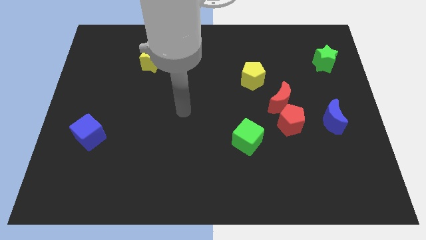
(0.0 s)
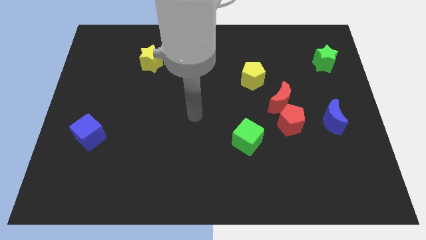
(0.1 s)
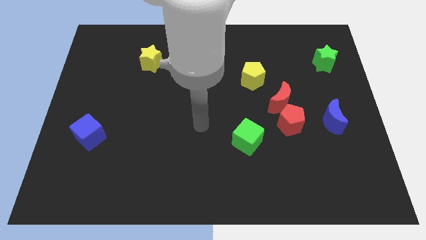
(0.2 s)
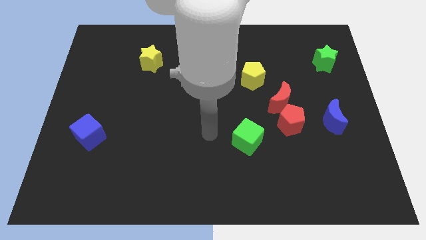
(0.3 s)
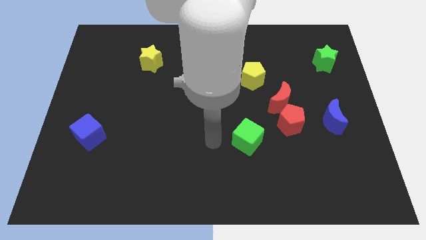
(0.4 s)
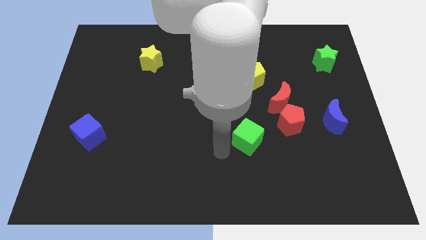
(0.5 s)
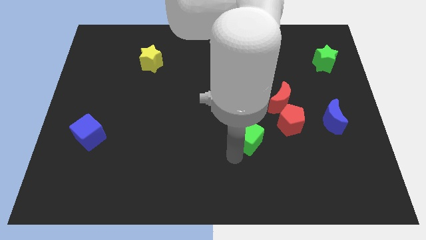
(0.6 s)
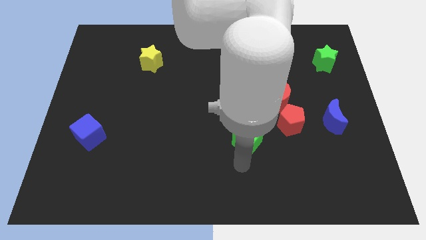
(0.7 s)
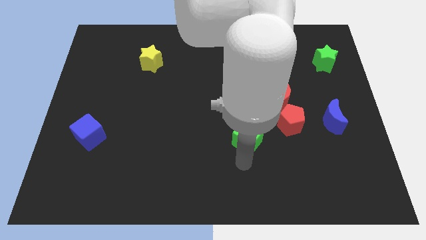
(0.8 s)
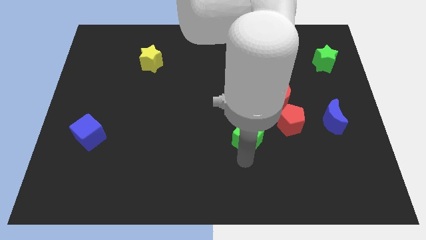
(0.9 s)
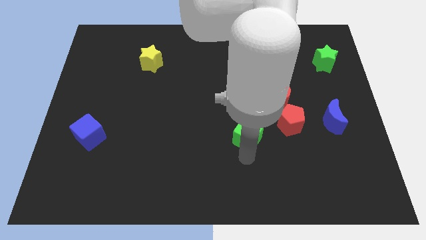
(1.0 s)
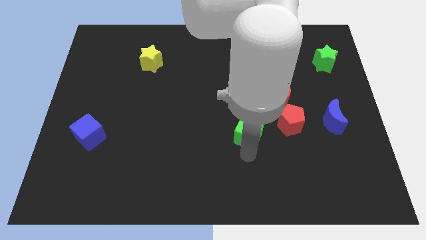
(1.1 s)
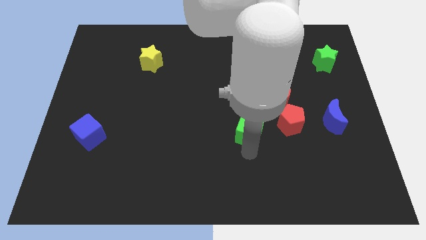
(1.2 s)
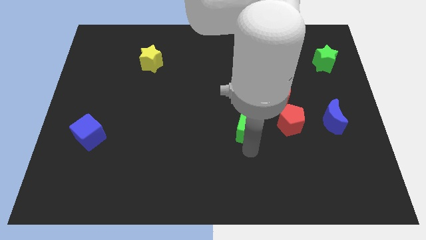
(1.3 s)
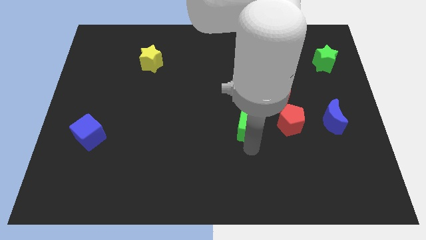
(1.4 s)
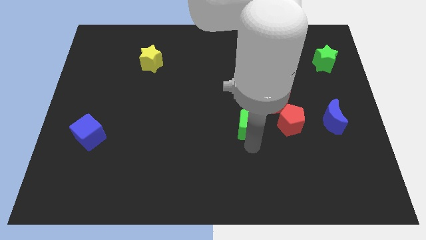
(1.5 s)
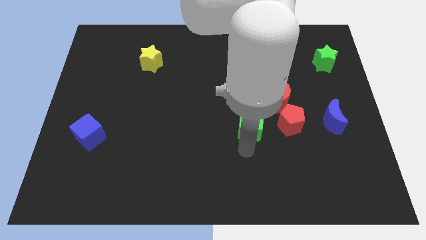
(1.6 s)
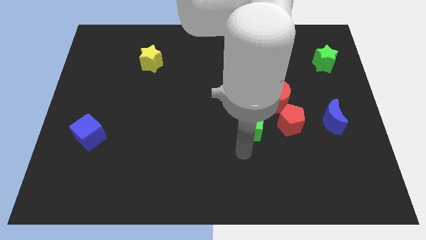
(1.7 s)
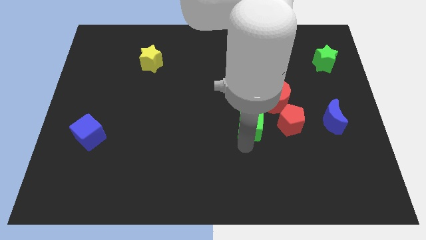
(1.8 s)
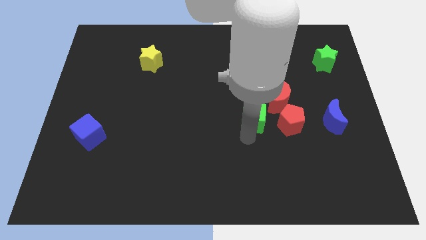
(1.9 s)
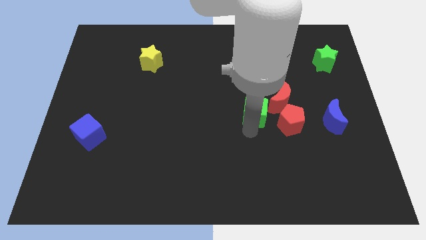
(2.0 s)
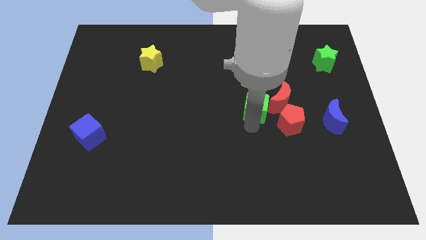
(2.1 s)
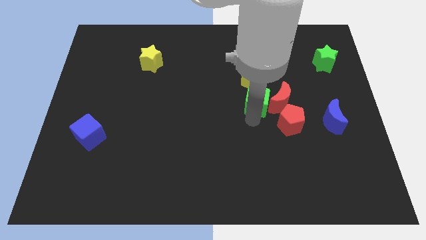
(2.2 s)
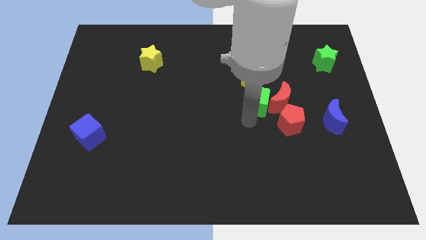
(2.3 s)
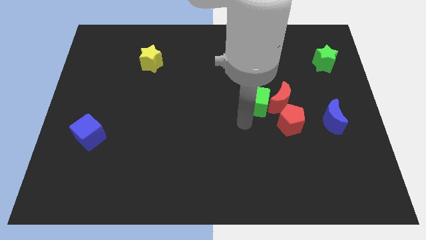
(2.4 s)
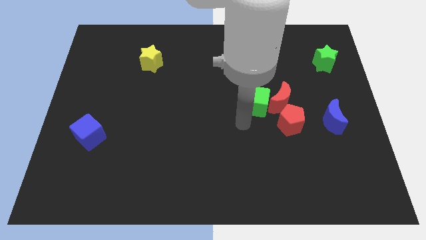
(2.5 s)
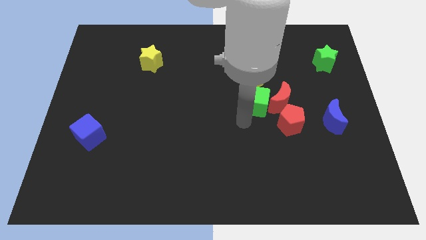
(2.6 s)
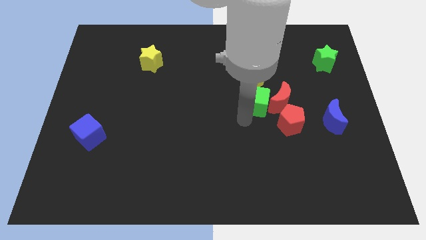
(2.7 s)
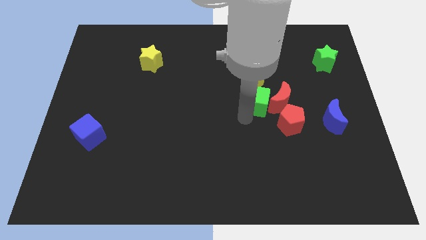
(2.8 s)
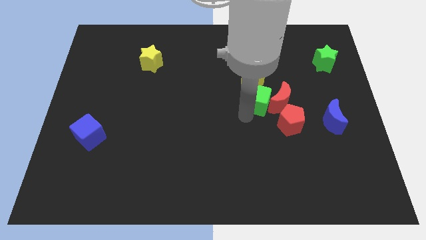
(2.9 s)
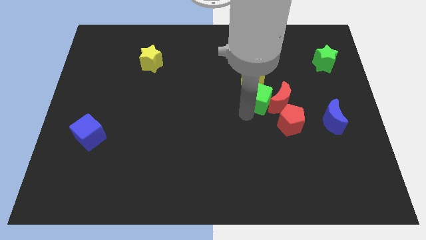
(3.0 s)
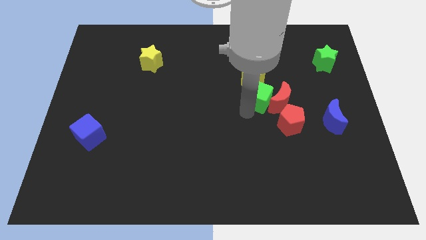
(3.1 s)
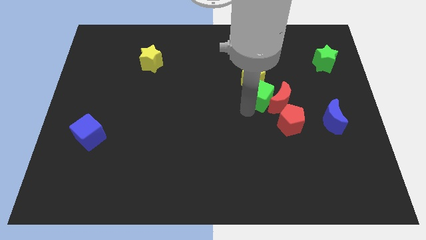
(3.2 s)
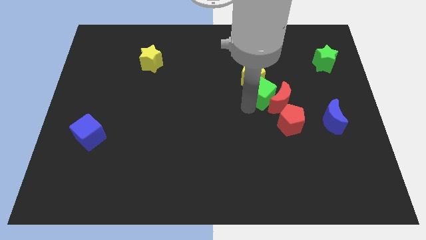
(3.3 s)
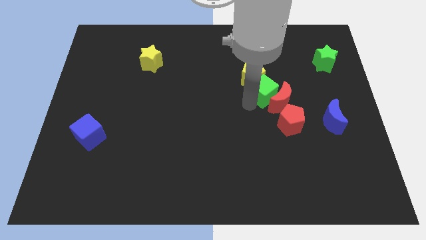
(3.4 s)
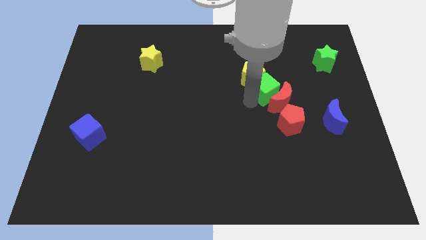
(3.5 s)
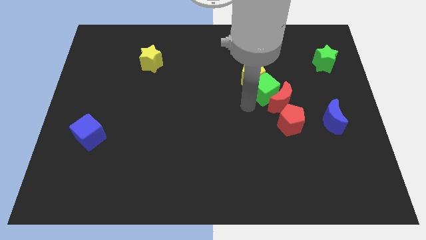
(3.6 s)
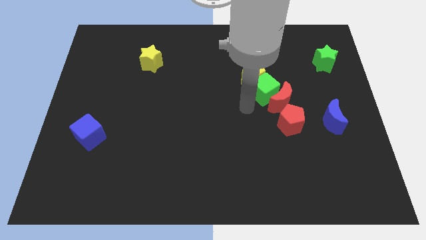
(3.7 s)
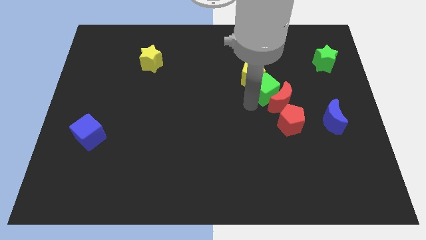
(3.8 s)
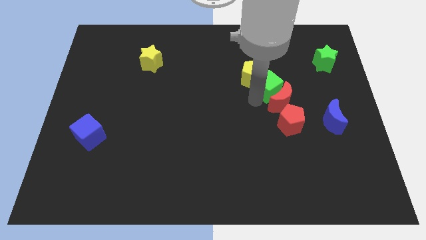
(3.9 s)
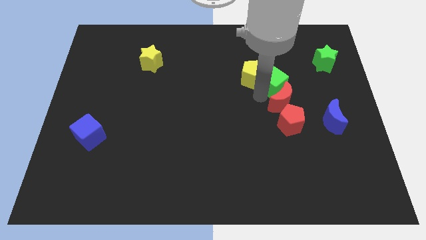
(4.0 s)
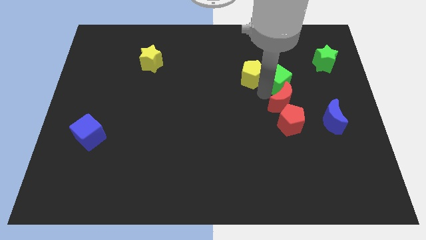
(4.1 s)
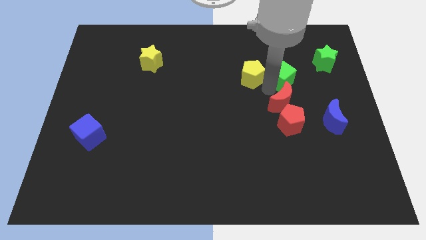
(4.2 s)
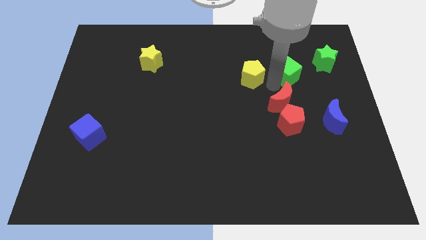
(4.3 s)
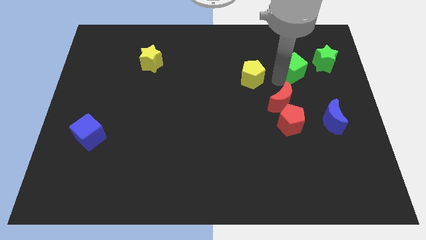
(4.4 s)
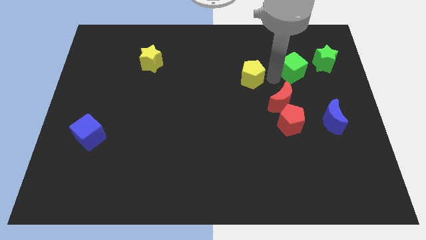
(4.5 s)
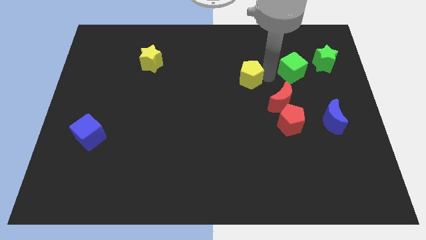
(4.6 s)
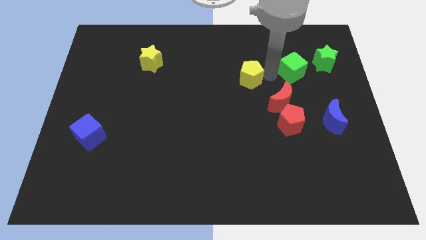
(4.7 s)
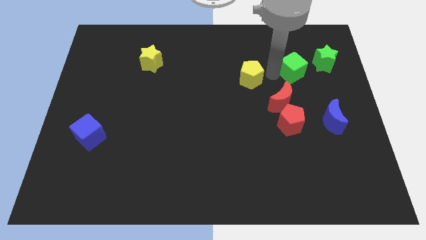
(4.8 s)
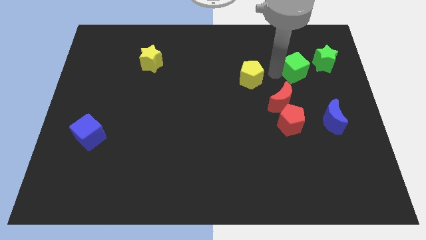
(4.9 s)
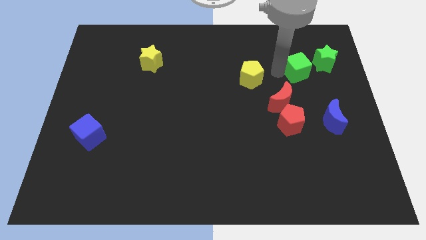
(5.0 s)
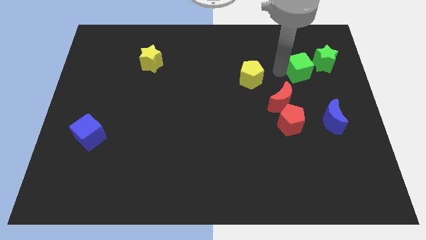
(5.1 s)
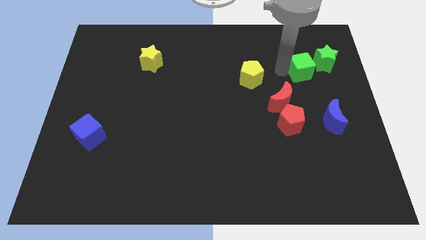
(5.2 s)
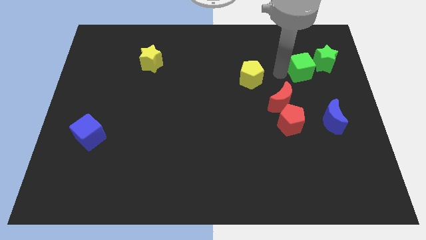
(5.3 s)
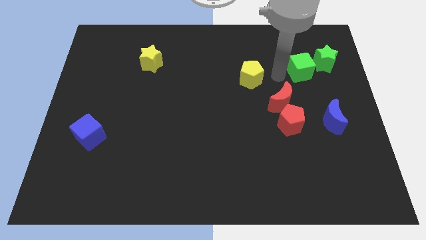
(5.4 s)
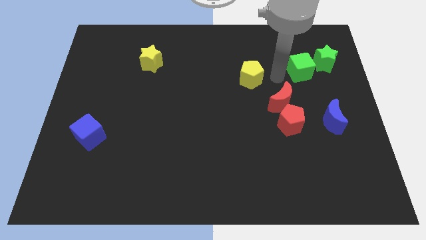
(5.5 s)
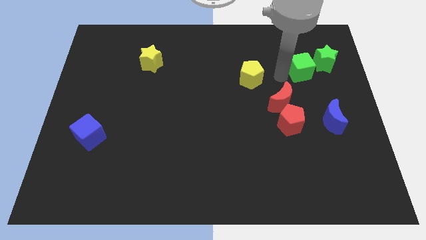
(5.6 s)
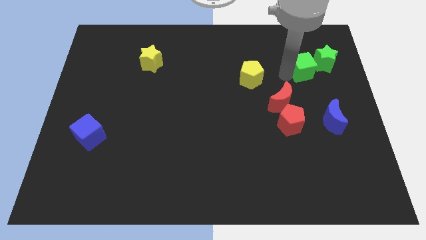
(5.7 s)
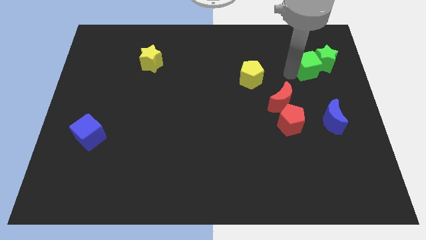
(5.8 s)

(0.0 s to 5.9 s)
push the green cube close to the green star

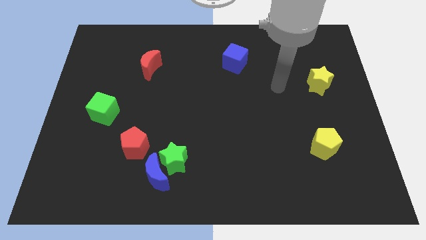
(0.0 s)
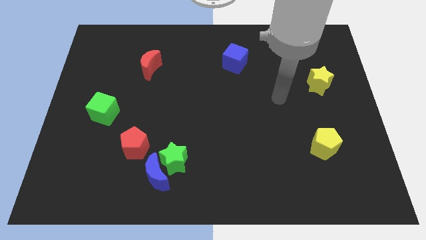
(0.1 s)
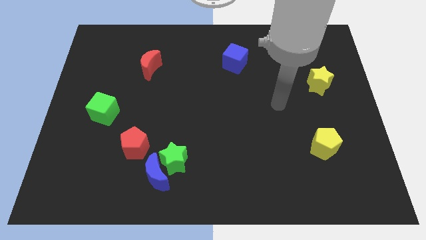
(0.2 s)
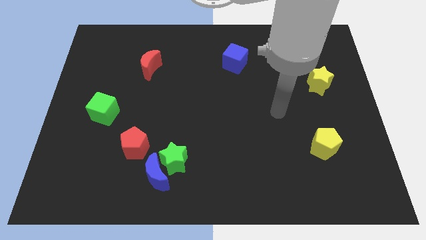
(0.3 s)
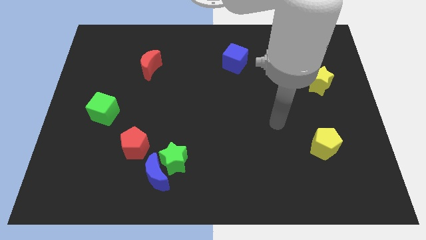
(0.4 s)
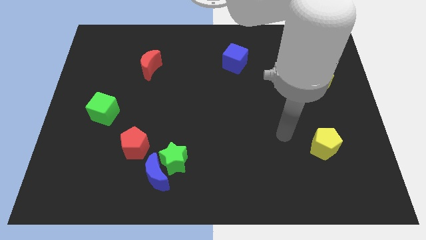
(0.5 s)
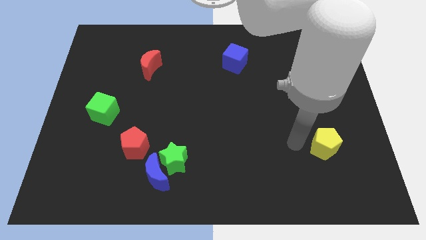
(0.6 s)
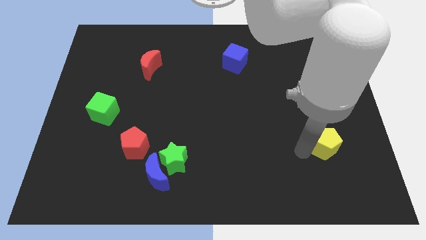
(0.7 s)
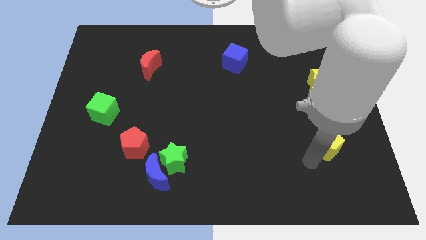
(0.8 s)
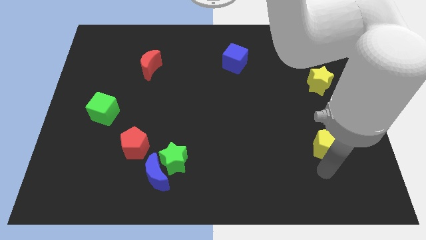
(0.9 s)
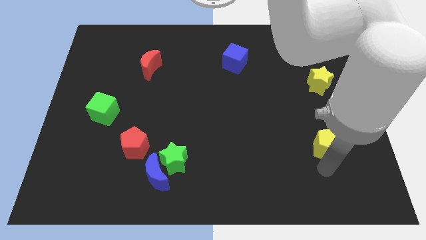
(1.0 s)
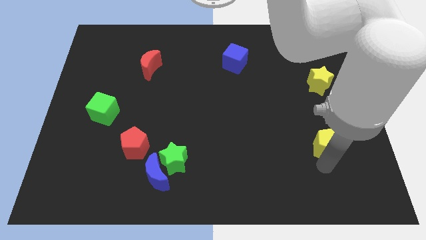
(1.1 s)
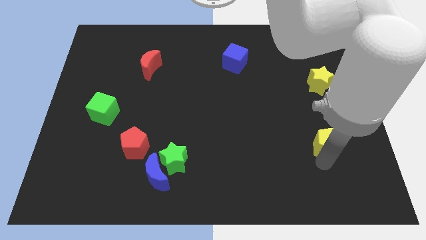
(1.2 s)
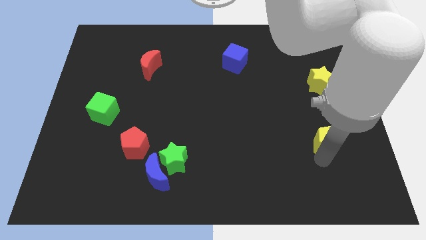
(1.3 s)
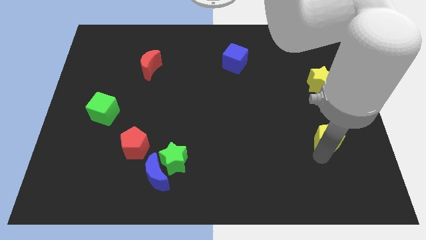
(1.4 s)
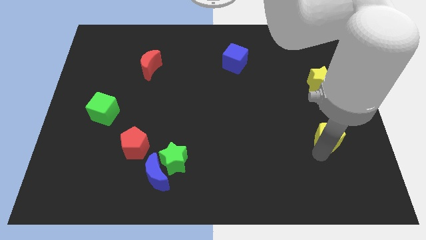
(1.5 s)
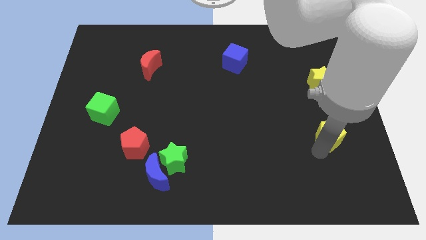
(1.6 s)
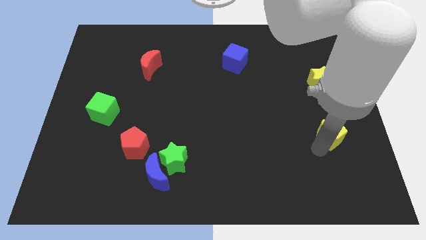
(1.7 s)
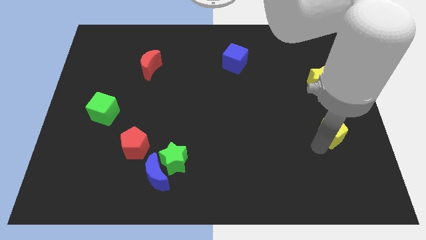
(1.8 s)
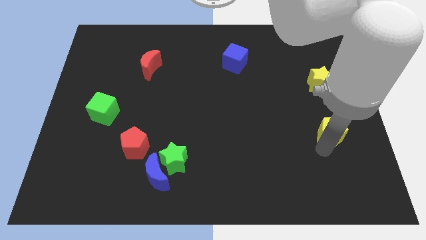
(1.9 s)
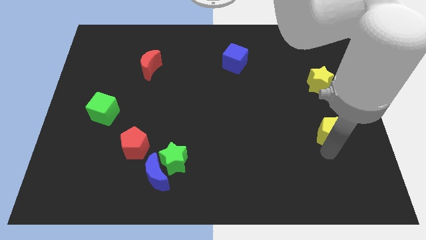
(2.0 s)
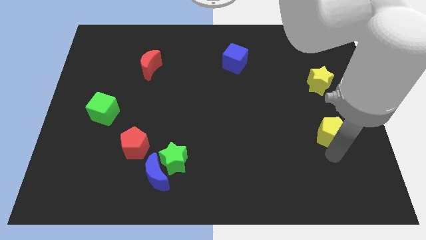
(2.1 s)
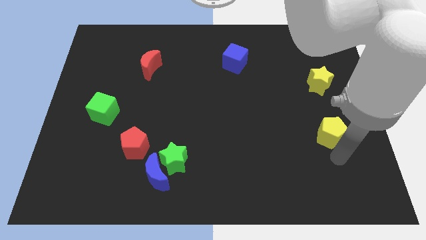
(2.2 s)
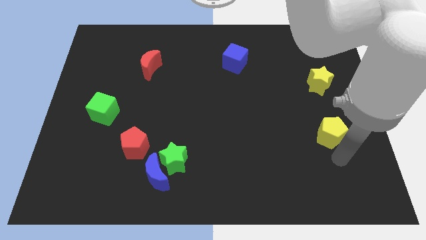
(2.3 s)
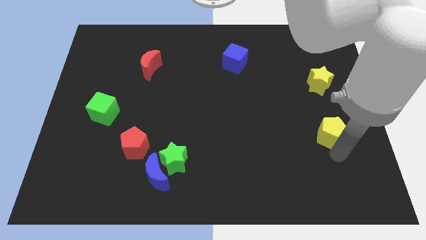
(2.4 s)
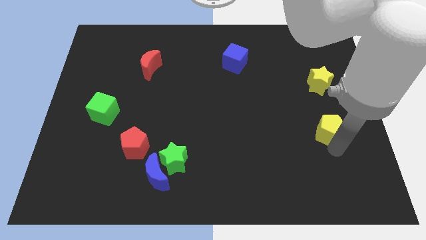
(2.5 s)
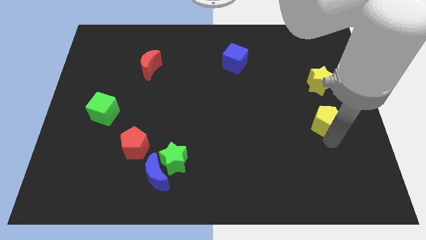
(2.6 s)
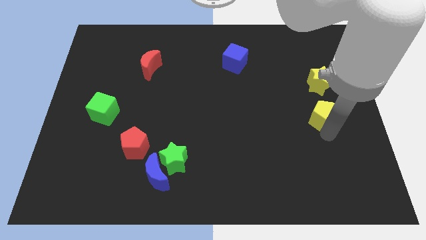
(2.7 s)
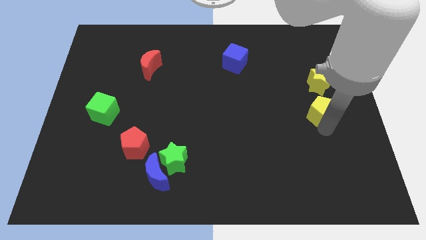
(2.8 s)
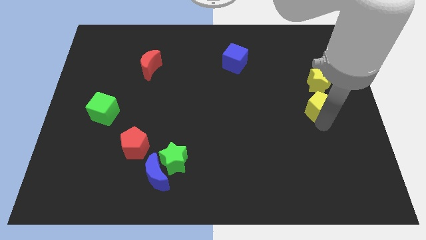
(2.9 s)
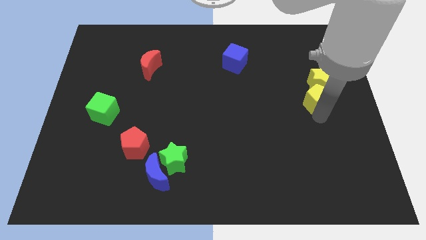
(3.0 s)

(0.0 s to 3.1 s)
slide the yellow pentagon towards the yellow star
